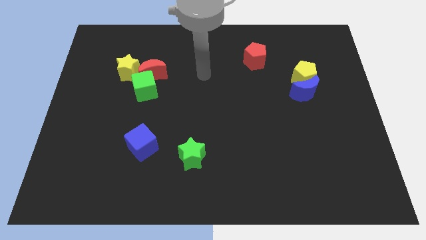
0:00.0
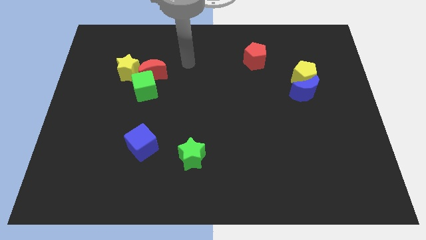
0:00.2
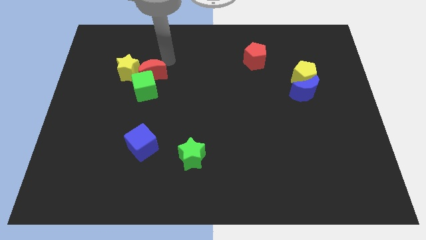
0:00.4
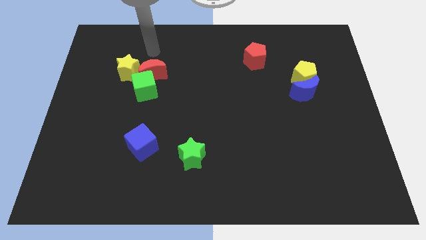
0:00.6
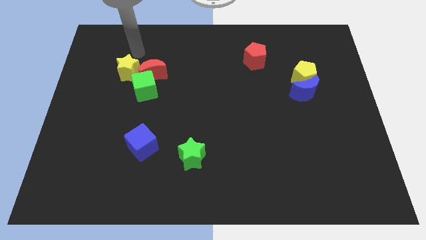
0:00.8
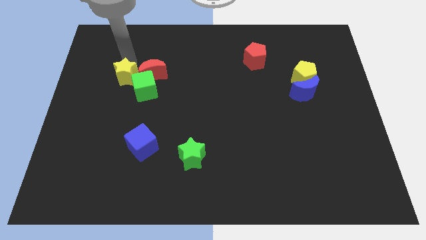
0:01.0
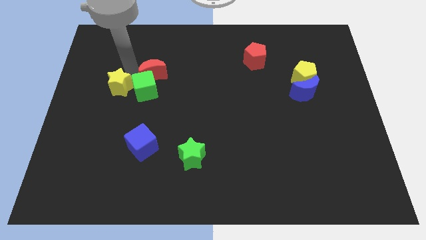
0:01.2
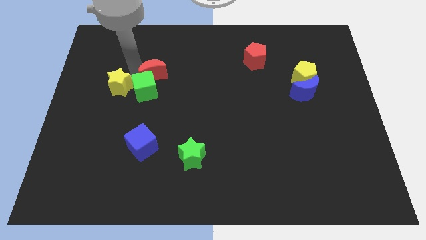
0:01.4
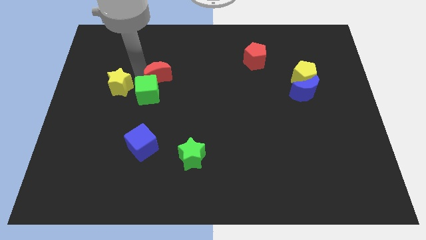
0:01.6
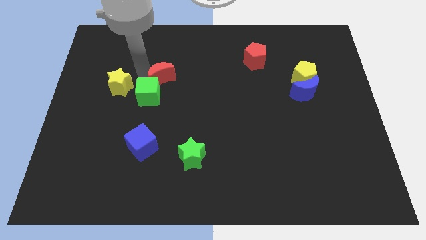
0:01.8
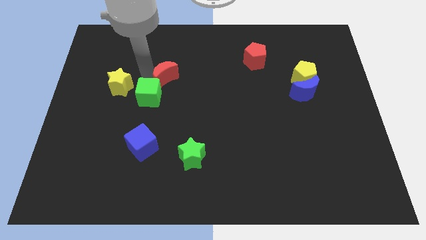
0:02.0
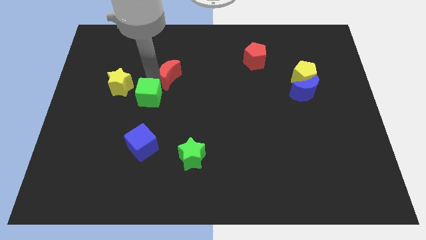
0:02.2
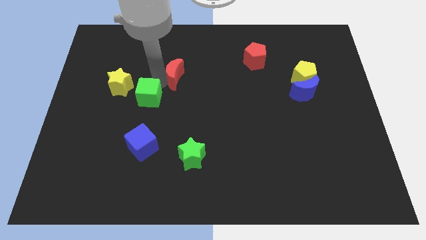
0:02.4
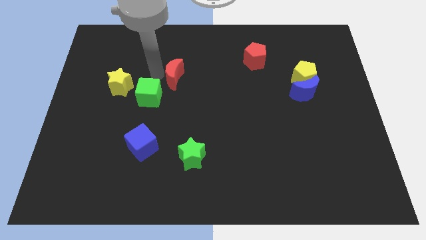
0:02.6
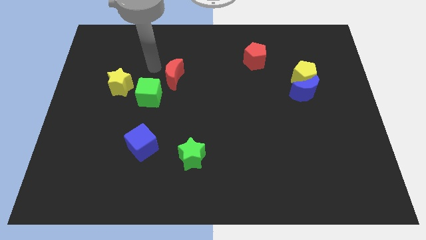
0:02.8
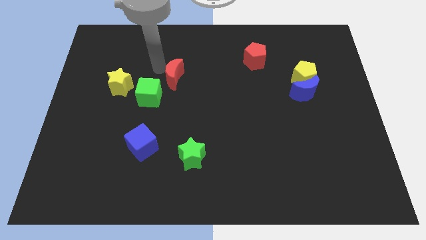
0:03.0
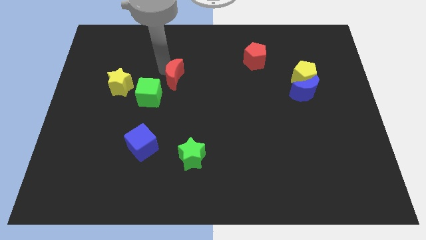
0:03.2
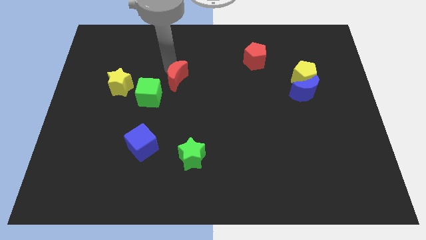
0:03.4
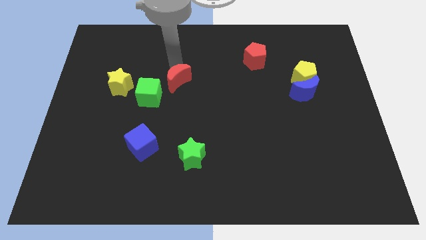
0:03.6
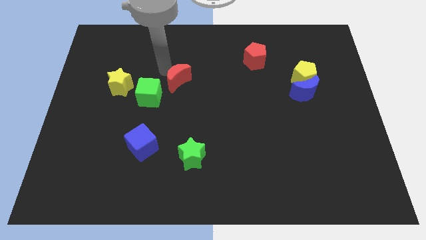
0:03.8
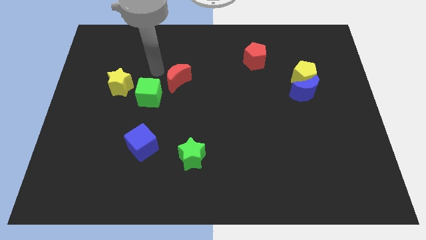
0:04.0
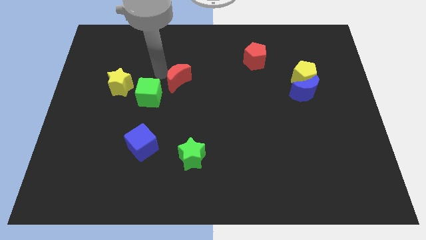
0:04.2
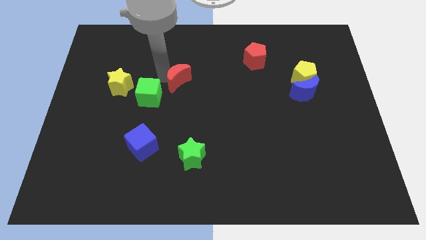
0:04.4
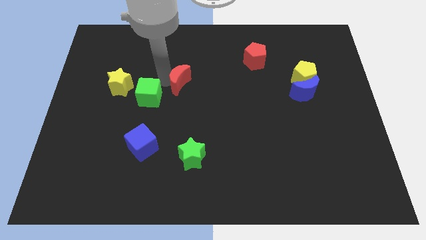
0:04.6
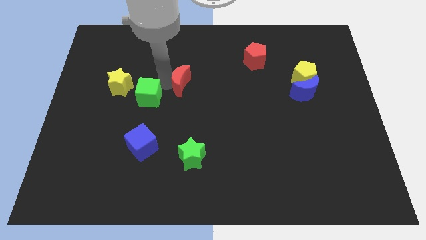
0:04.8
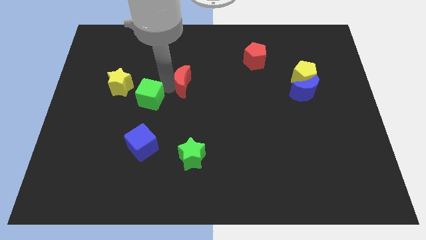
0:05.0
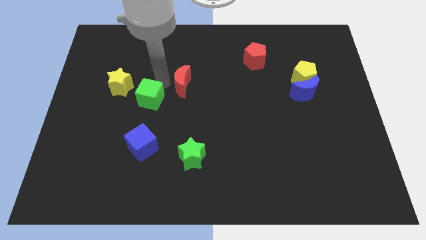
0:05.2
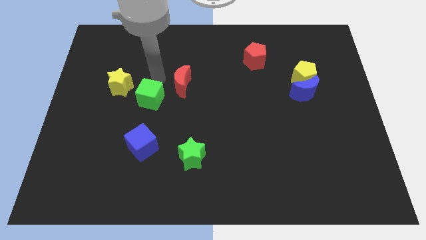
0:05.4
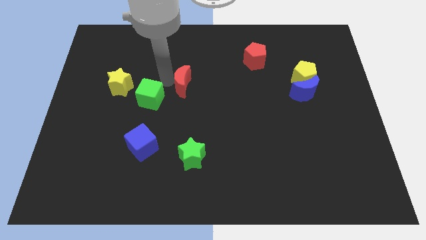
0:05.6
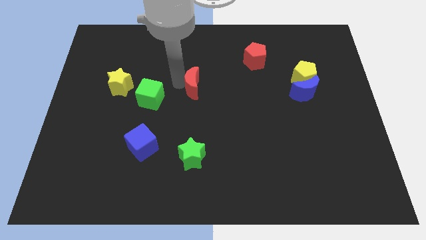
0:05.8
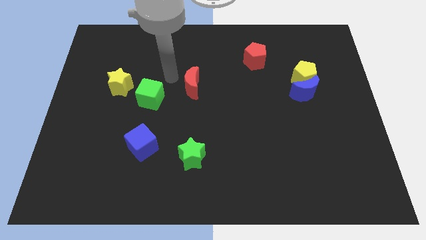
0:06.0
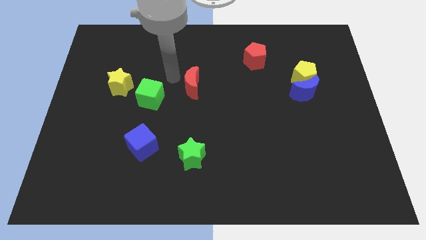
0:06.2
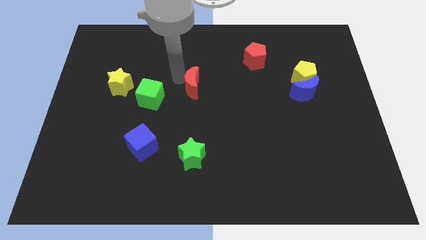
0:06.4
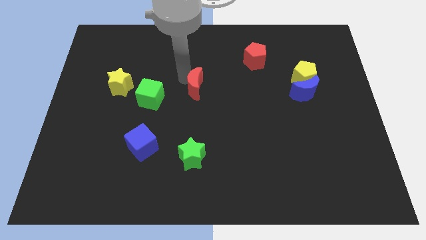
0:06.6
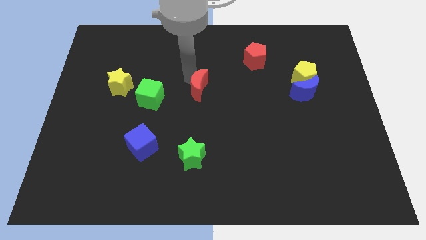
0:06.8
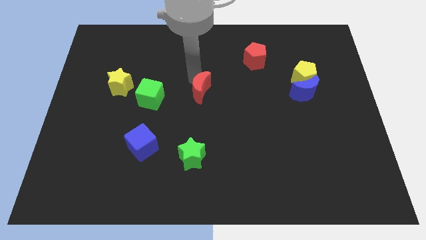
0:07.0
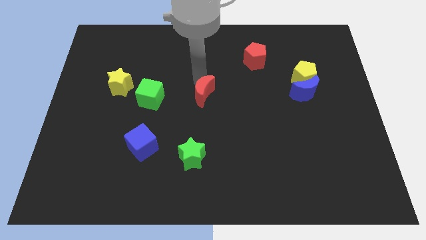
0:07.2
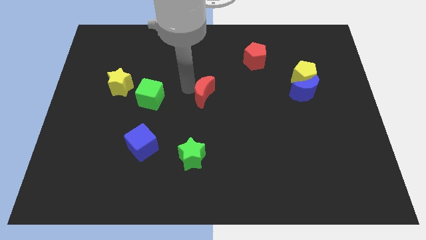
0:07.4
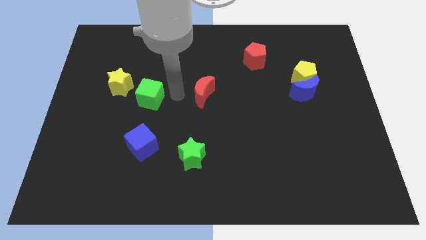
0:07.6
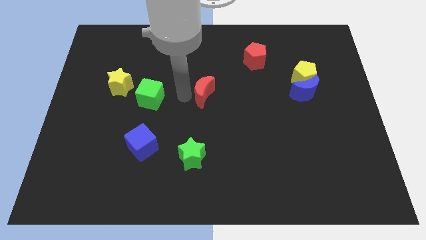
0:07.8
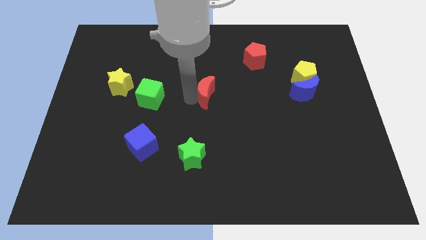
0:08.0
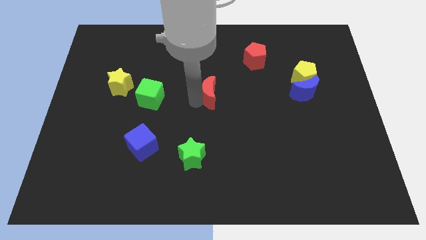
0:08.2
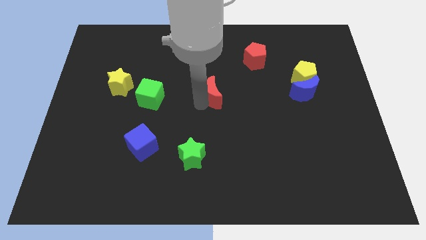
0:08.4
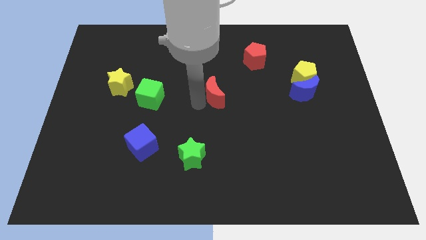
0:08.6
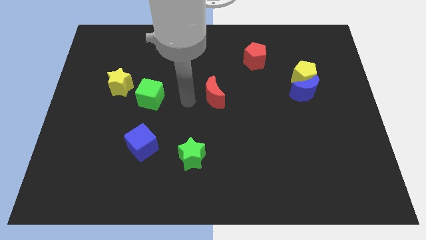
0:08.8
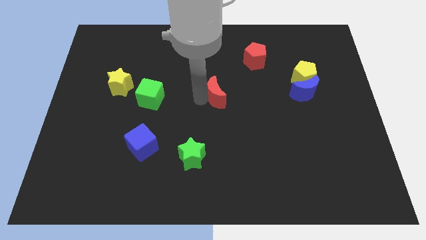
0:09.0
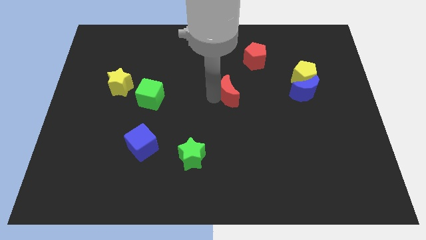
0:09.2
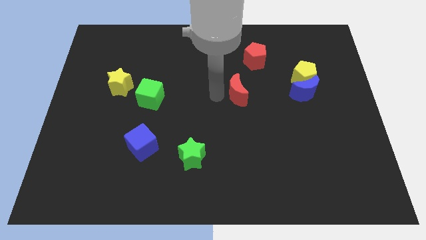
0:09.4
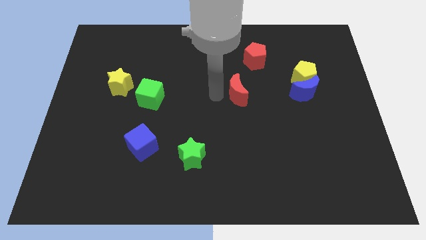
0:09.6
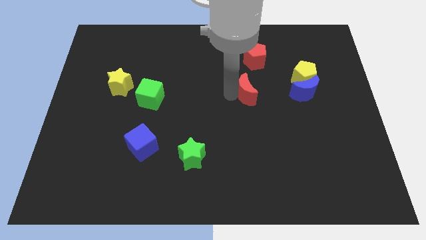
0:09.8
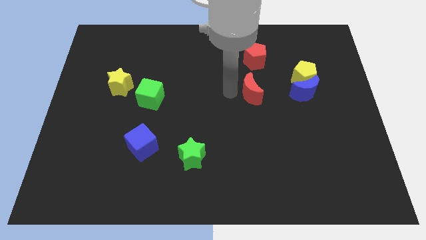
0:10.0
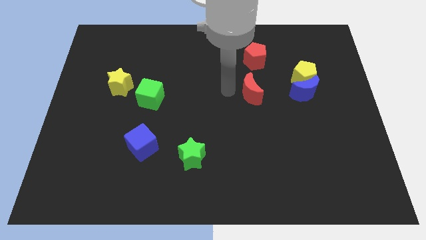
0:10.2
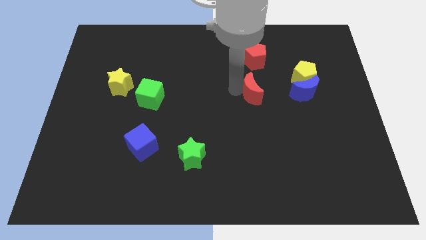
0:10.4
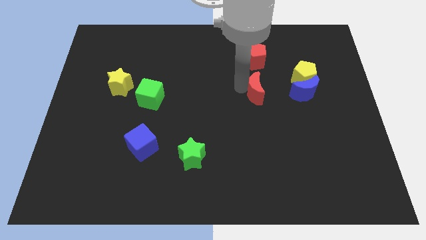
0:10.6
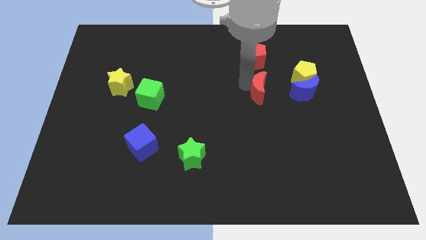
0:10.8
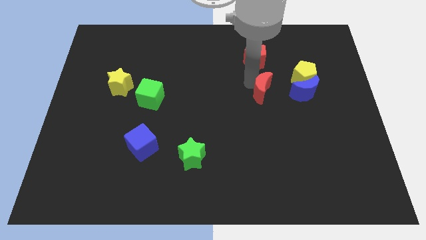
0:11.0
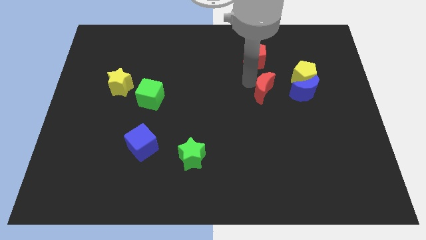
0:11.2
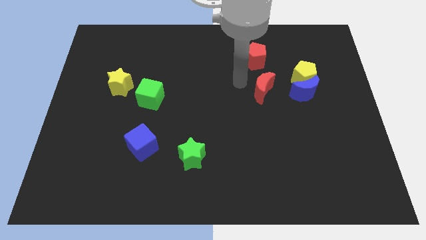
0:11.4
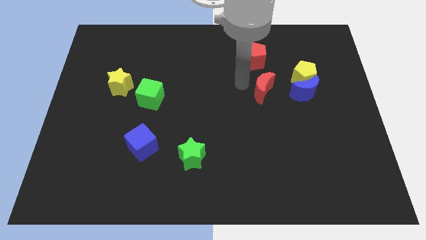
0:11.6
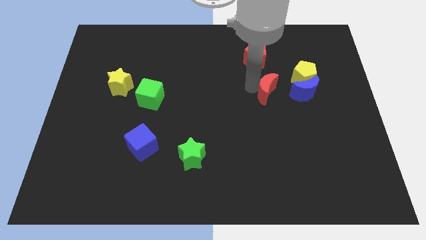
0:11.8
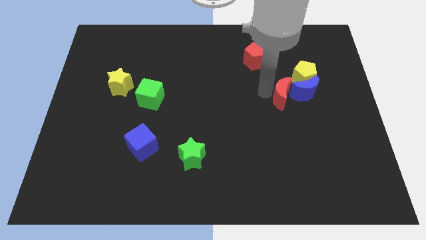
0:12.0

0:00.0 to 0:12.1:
slide the red moon towards the blue moon

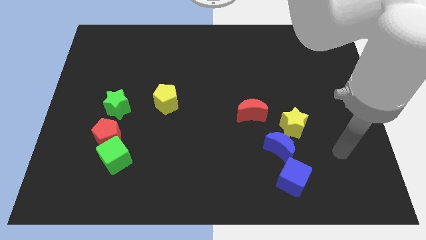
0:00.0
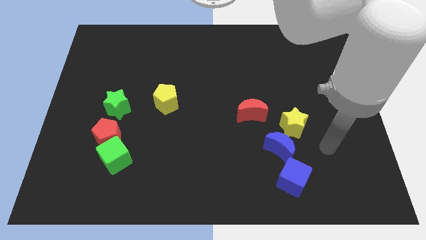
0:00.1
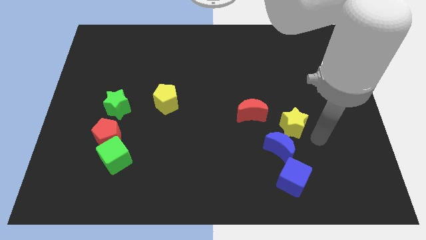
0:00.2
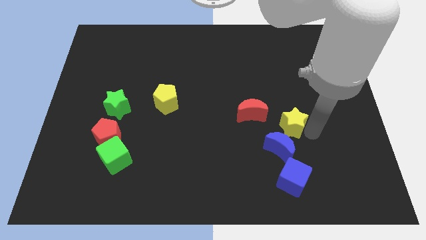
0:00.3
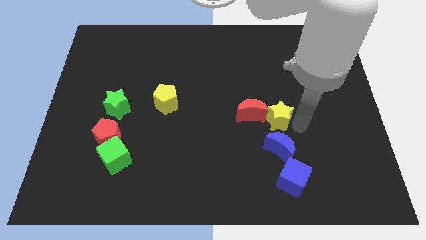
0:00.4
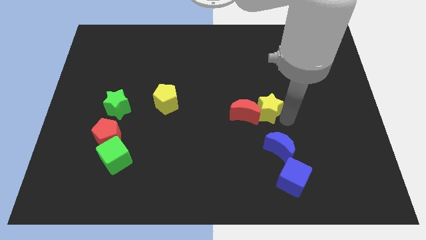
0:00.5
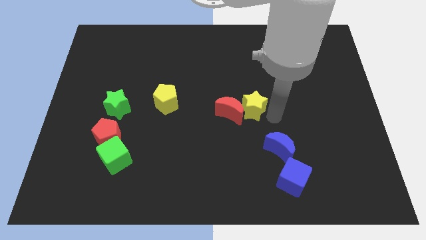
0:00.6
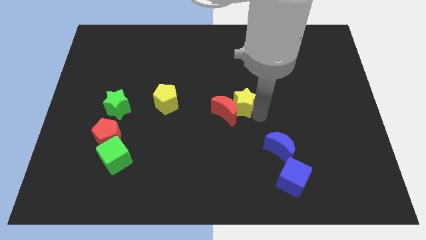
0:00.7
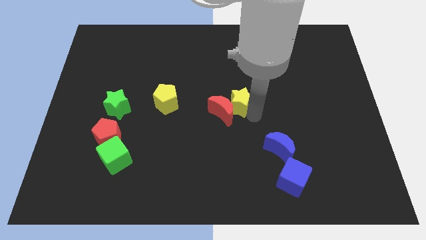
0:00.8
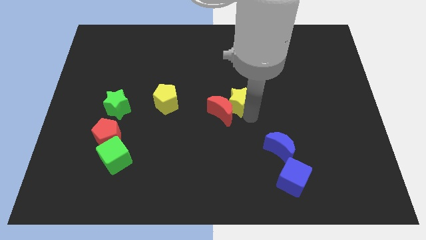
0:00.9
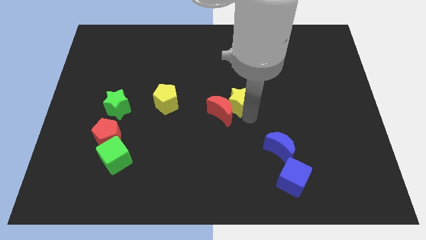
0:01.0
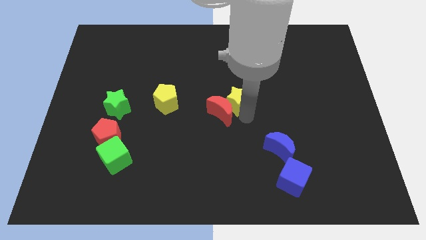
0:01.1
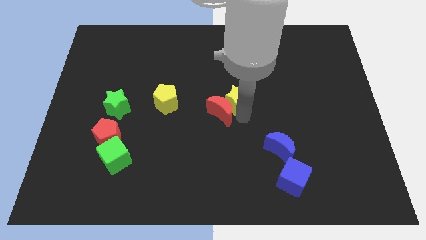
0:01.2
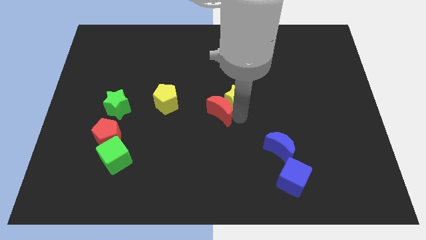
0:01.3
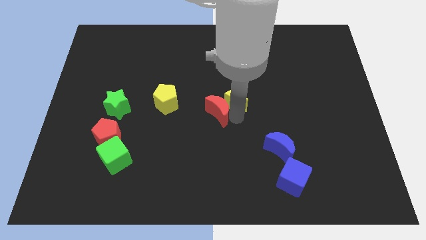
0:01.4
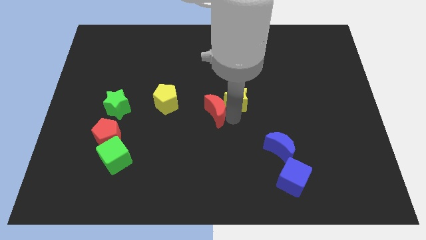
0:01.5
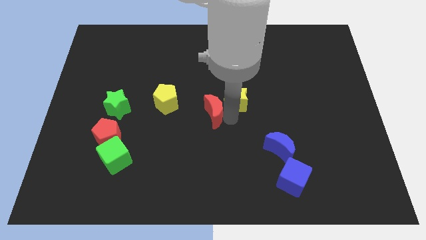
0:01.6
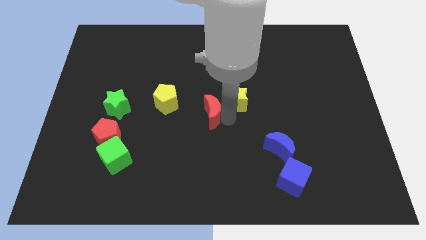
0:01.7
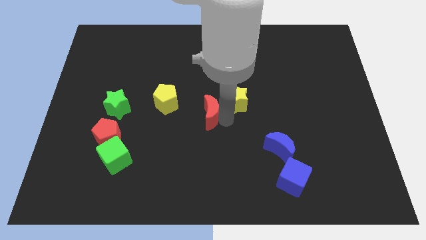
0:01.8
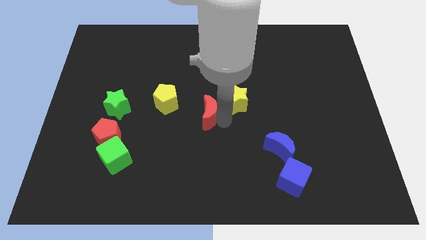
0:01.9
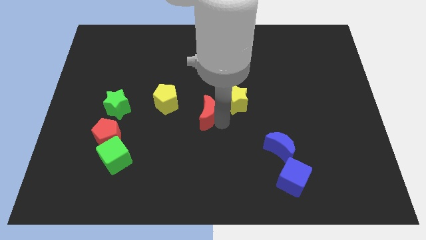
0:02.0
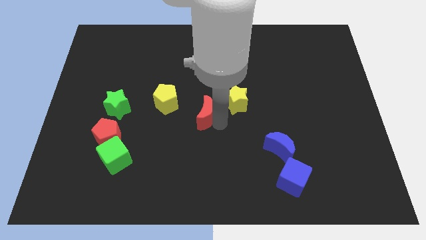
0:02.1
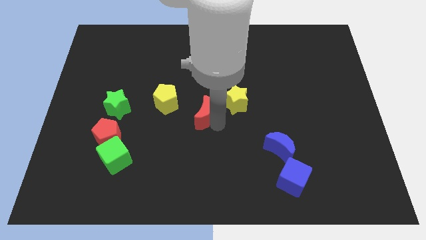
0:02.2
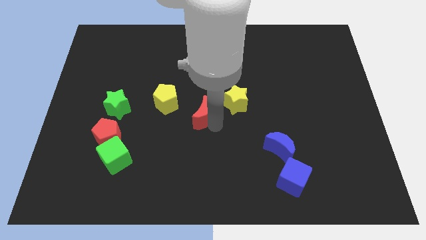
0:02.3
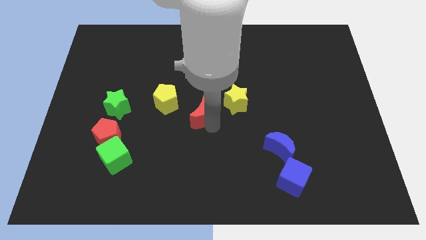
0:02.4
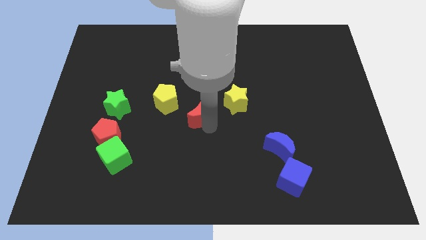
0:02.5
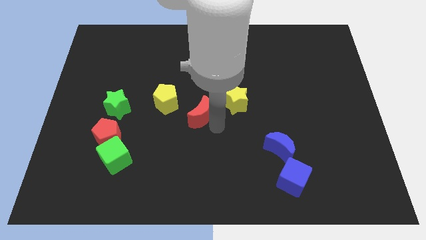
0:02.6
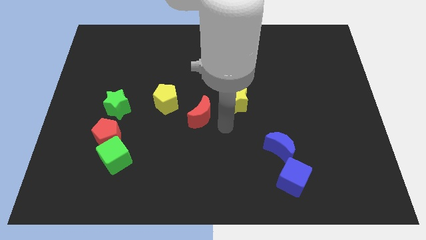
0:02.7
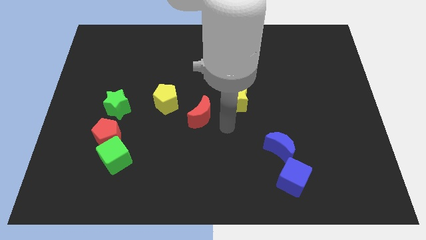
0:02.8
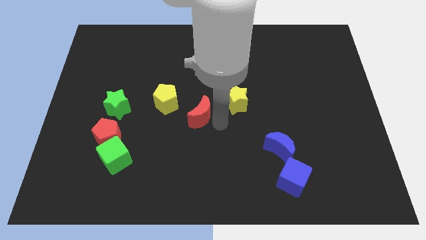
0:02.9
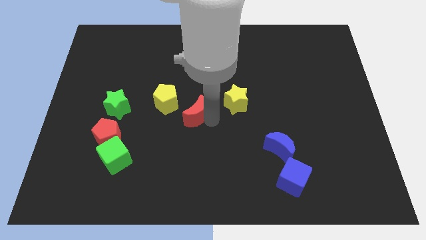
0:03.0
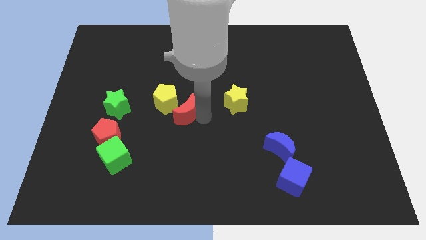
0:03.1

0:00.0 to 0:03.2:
put the red moon next to the yellow pentagon
